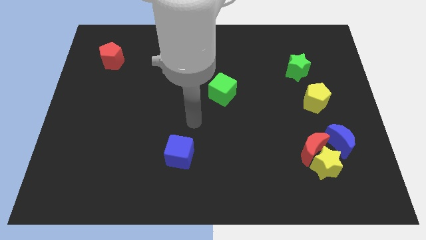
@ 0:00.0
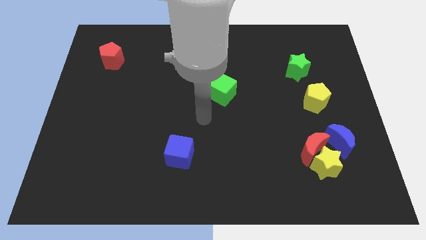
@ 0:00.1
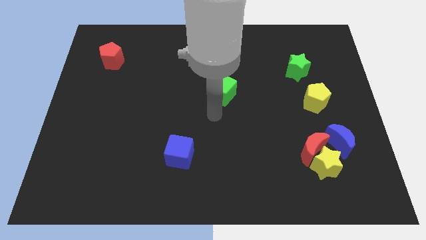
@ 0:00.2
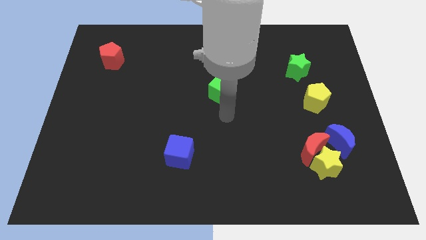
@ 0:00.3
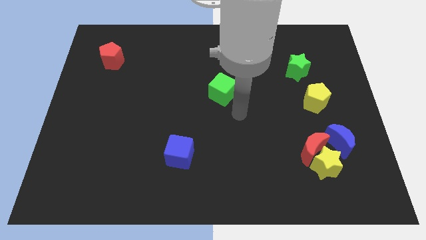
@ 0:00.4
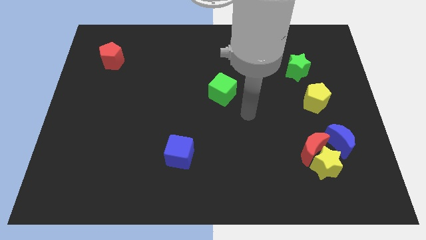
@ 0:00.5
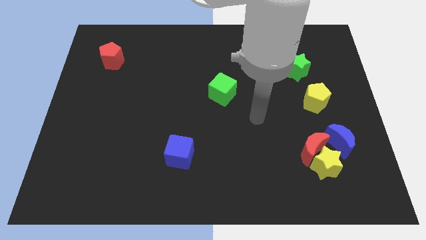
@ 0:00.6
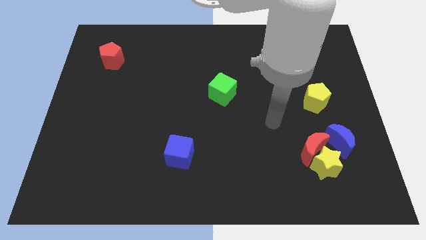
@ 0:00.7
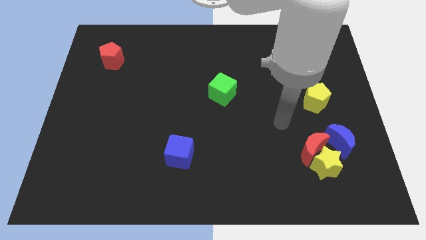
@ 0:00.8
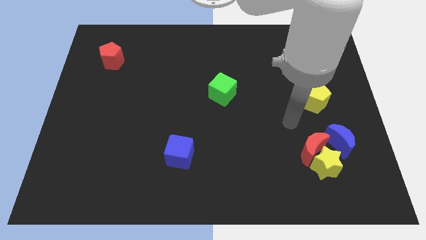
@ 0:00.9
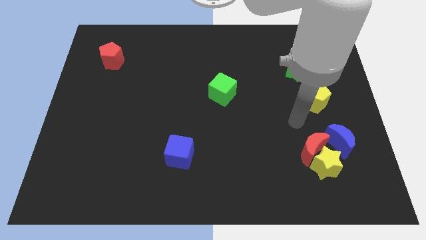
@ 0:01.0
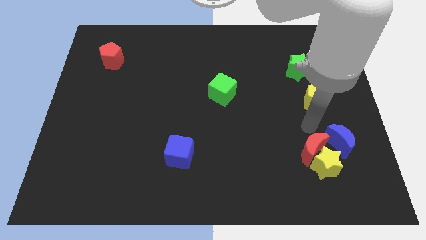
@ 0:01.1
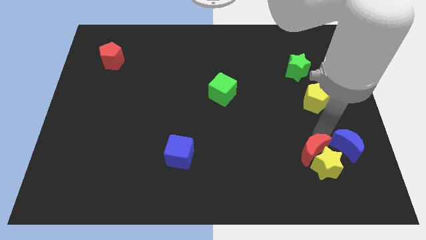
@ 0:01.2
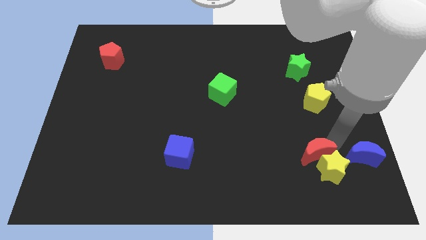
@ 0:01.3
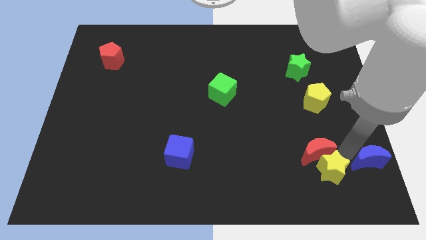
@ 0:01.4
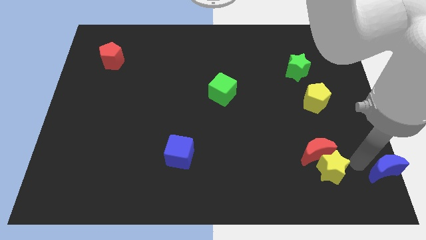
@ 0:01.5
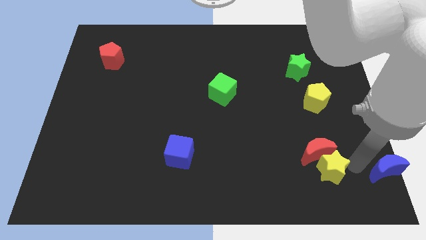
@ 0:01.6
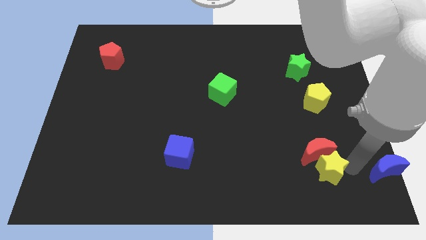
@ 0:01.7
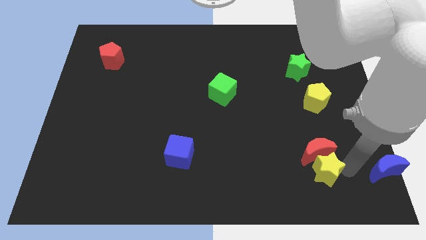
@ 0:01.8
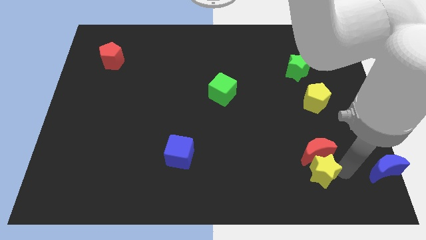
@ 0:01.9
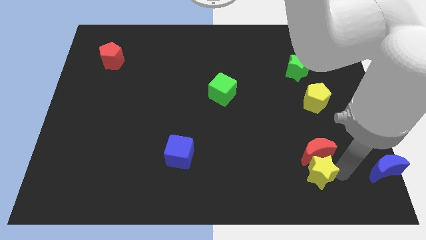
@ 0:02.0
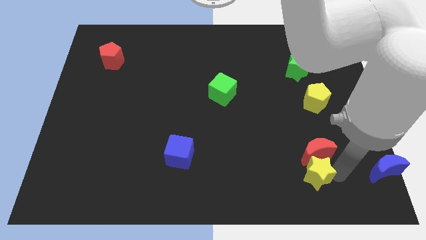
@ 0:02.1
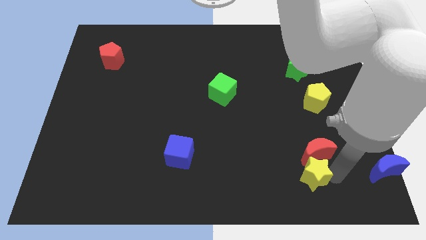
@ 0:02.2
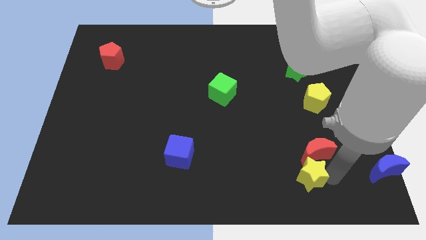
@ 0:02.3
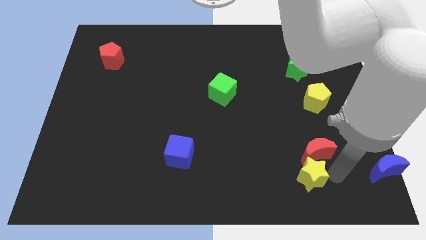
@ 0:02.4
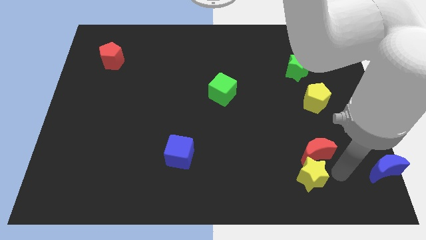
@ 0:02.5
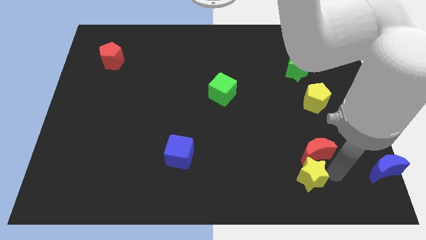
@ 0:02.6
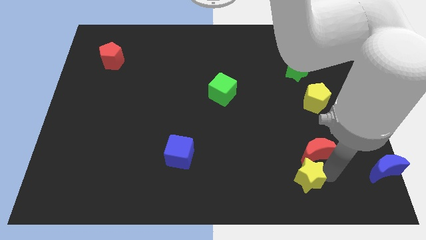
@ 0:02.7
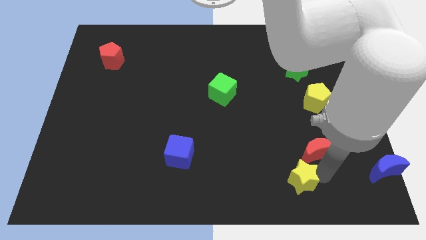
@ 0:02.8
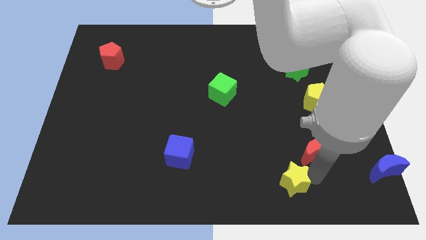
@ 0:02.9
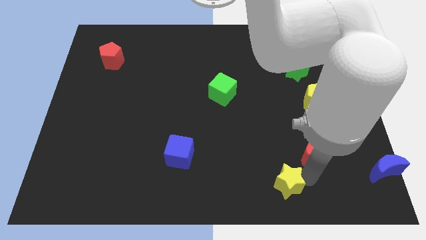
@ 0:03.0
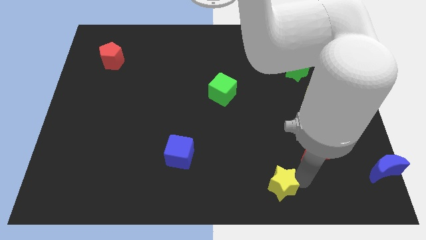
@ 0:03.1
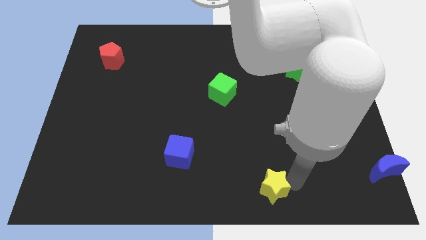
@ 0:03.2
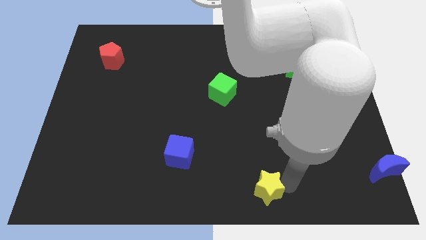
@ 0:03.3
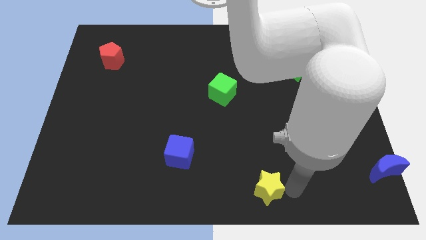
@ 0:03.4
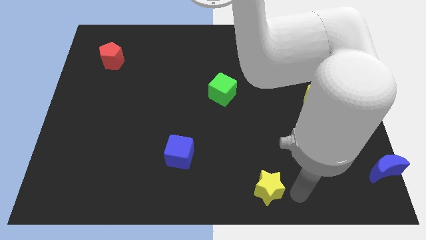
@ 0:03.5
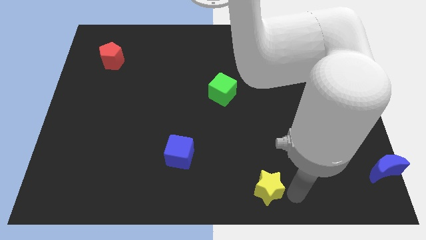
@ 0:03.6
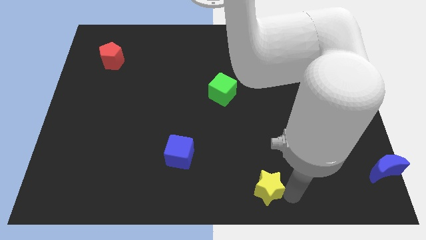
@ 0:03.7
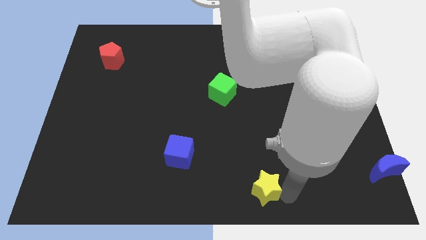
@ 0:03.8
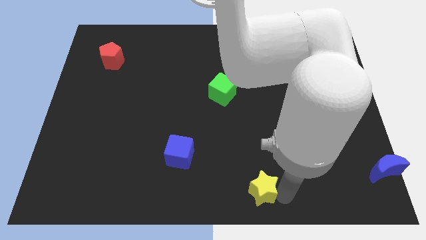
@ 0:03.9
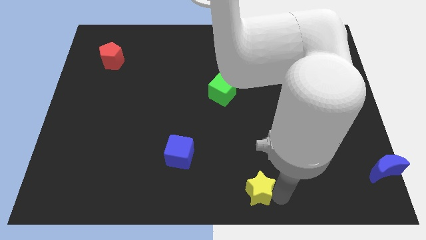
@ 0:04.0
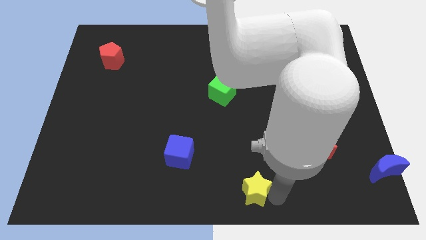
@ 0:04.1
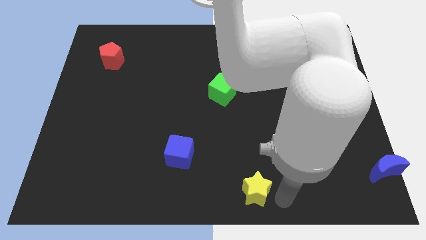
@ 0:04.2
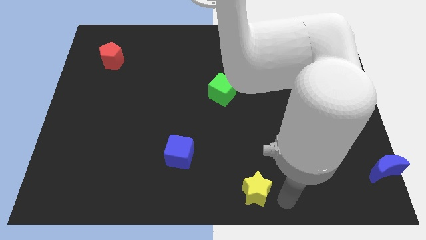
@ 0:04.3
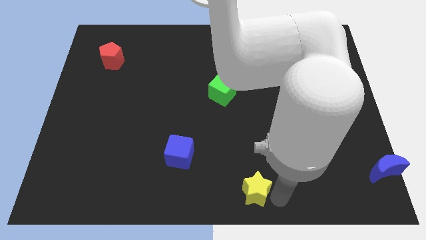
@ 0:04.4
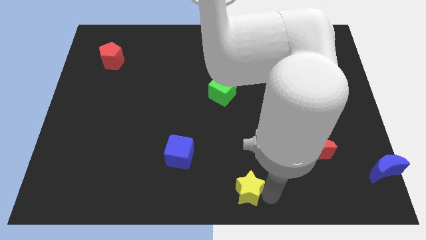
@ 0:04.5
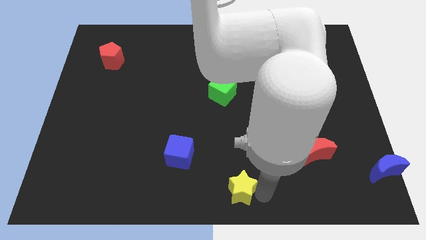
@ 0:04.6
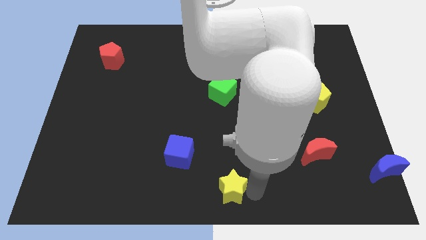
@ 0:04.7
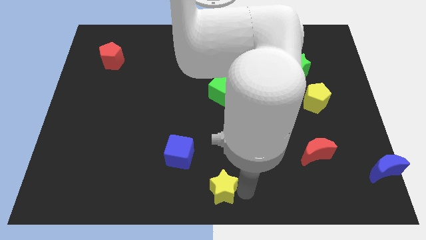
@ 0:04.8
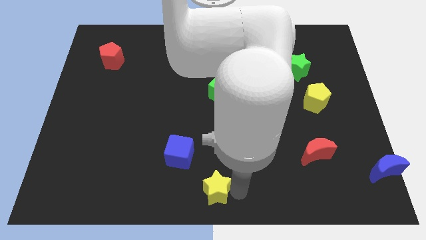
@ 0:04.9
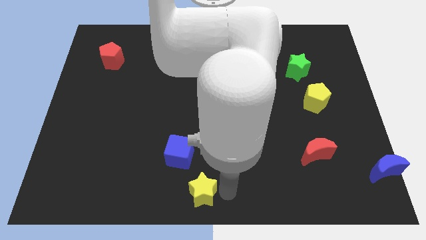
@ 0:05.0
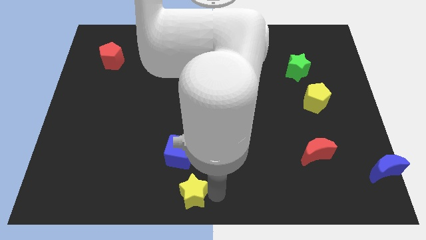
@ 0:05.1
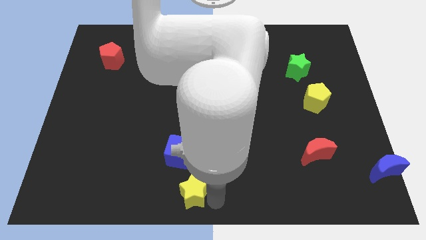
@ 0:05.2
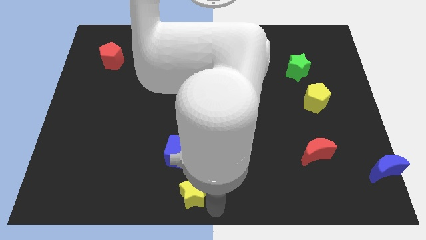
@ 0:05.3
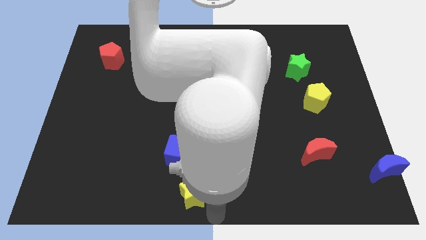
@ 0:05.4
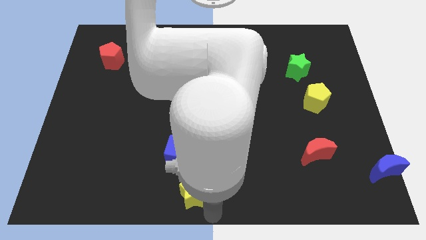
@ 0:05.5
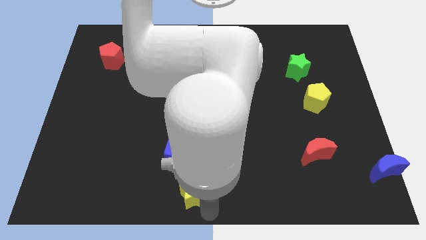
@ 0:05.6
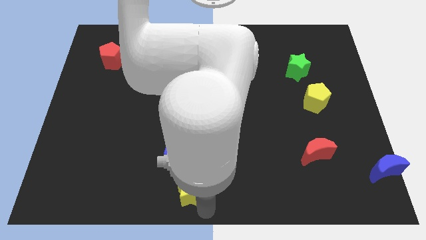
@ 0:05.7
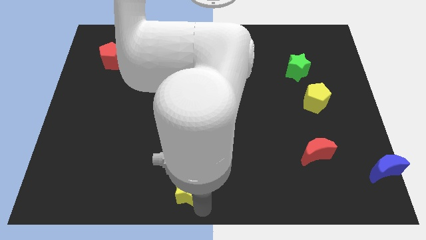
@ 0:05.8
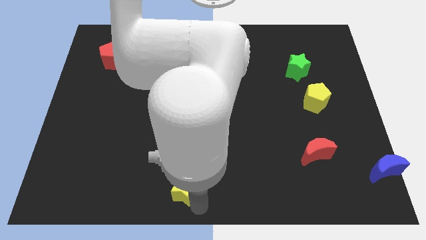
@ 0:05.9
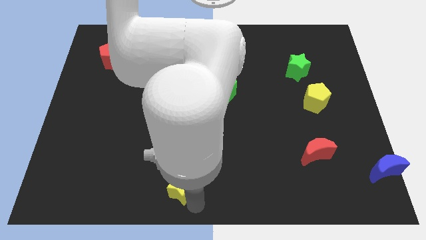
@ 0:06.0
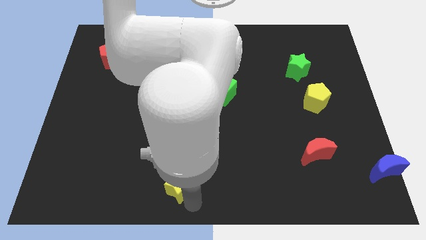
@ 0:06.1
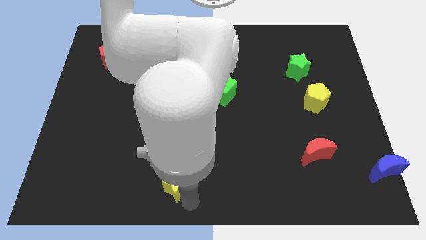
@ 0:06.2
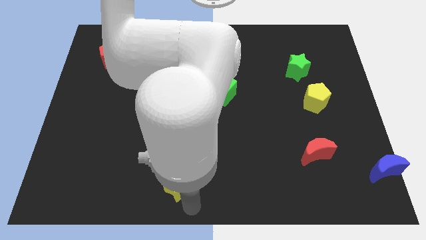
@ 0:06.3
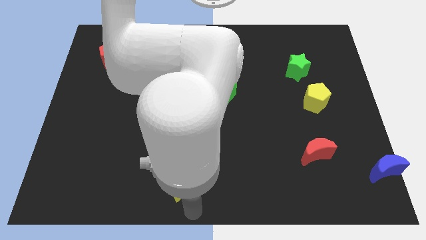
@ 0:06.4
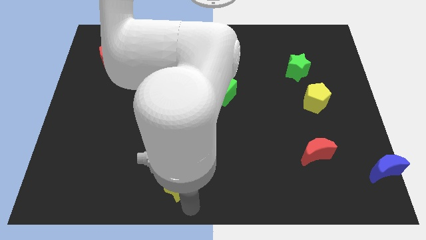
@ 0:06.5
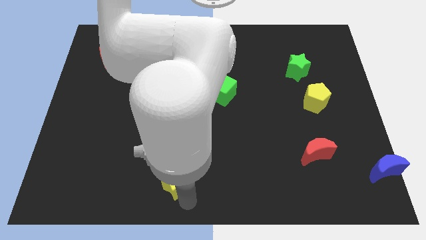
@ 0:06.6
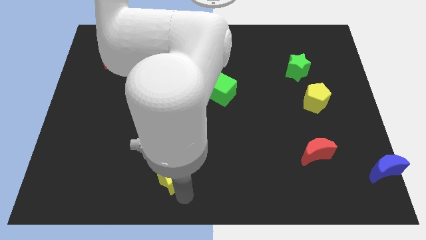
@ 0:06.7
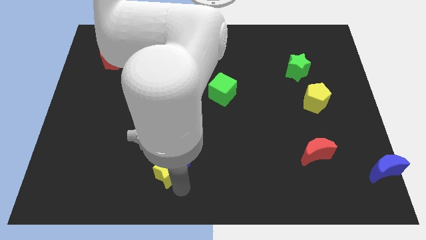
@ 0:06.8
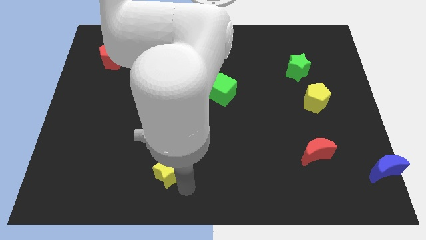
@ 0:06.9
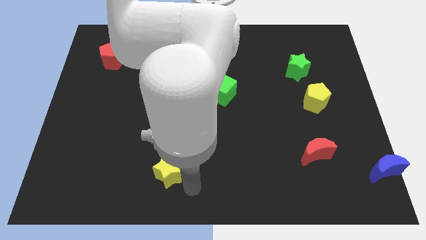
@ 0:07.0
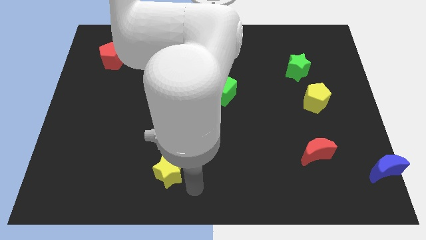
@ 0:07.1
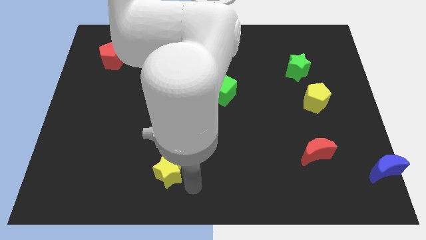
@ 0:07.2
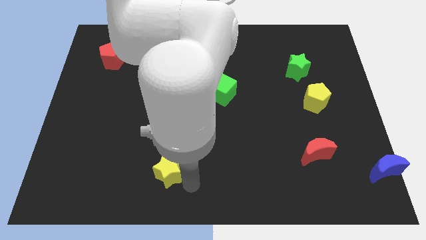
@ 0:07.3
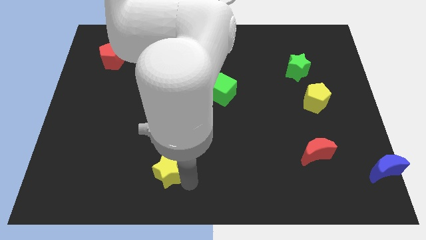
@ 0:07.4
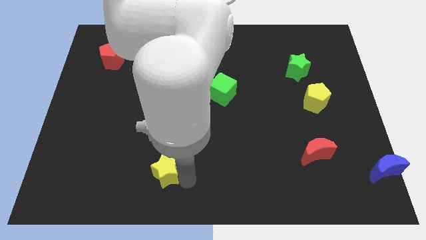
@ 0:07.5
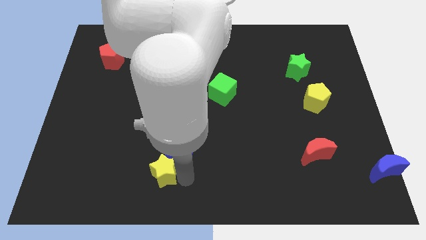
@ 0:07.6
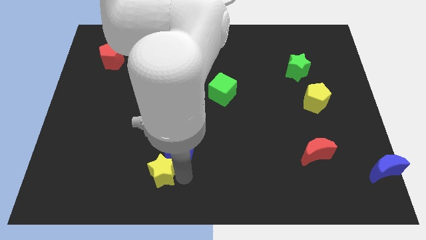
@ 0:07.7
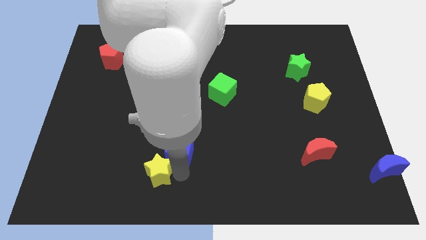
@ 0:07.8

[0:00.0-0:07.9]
put the yellow star to the left side of the blue cube
